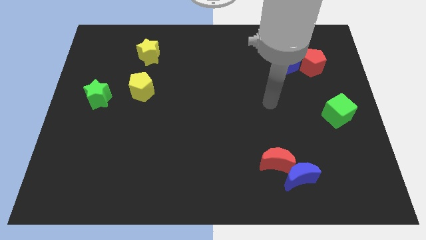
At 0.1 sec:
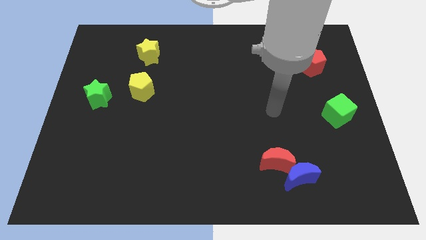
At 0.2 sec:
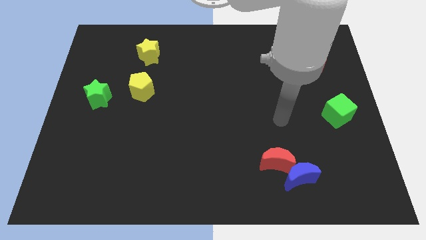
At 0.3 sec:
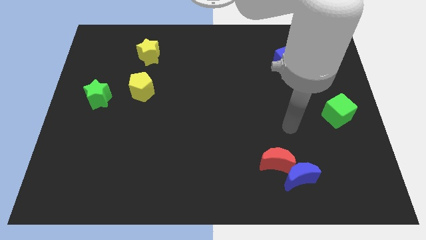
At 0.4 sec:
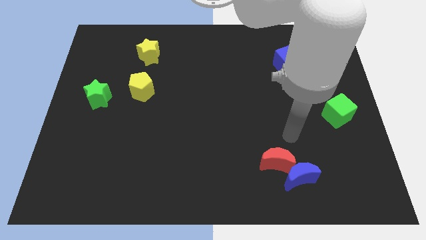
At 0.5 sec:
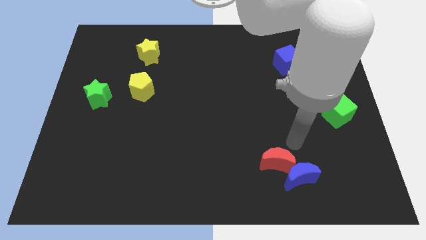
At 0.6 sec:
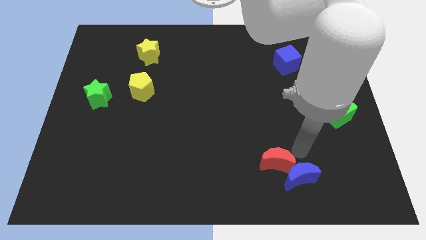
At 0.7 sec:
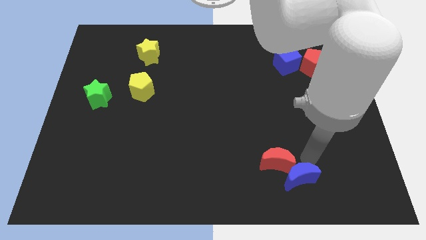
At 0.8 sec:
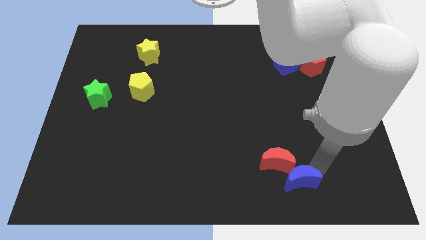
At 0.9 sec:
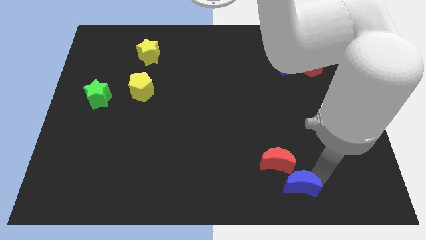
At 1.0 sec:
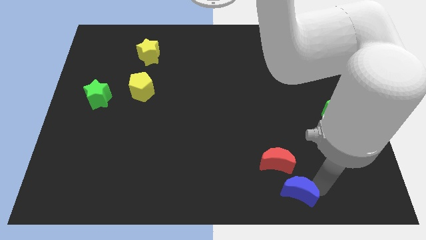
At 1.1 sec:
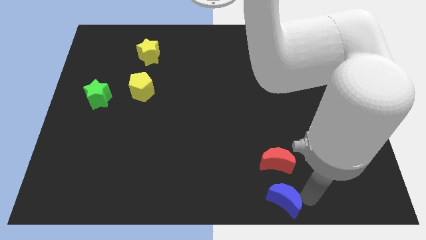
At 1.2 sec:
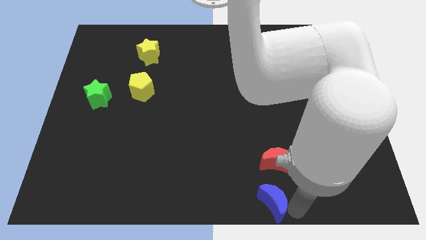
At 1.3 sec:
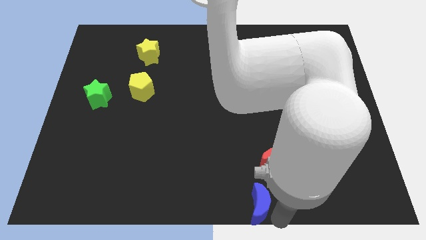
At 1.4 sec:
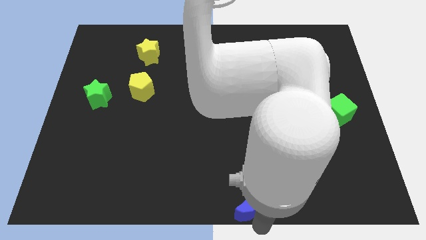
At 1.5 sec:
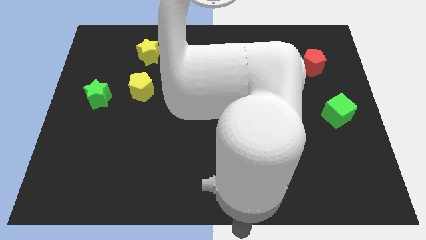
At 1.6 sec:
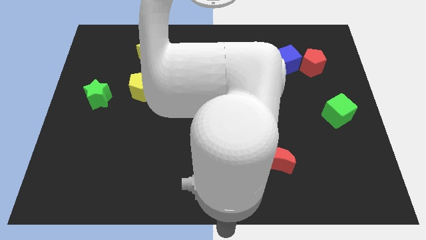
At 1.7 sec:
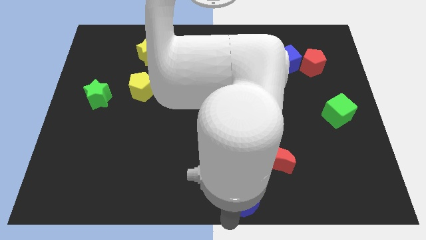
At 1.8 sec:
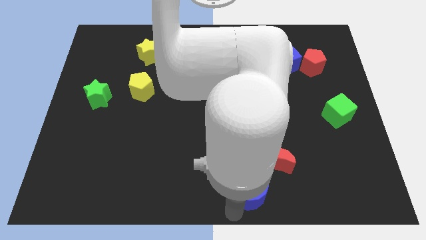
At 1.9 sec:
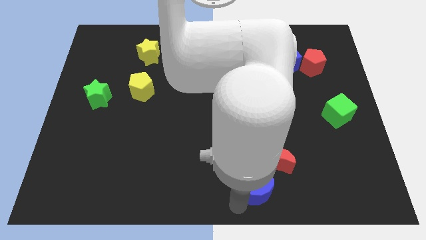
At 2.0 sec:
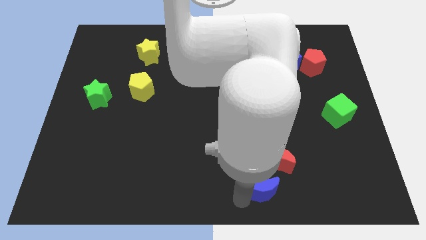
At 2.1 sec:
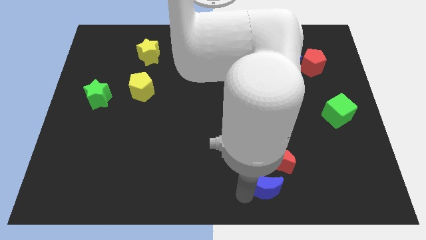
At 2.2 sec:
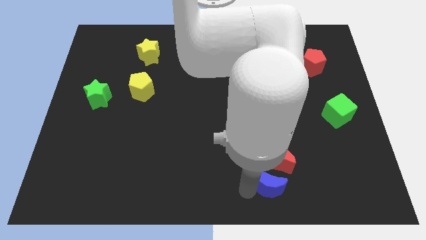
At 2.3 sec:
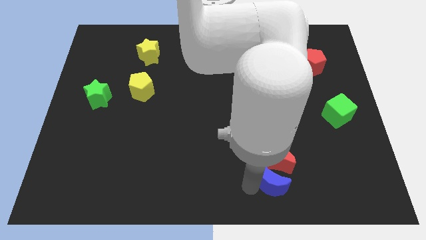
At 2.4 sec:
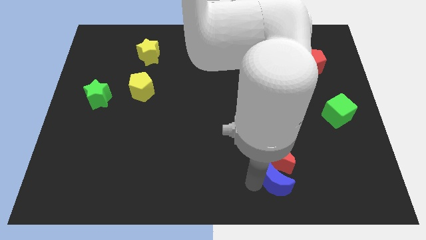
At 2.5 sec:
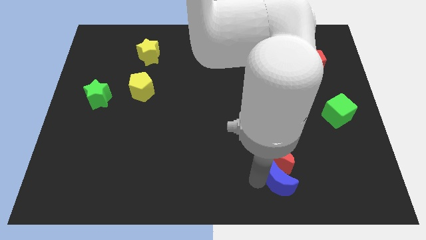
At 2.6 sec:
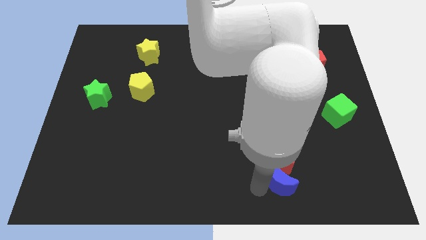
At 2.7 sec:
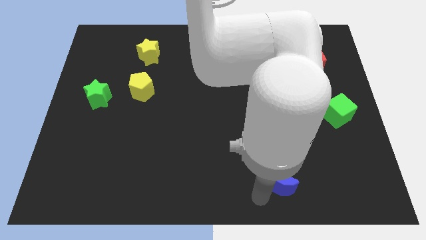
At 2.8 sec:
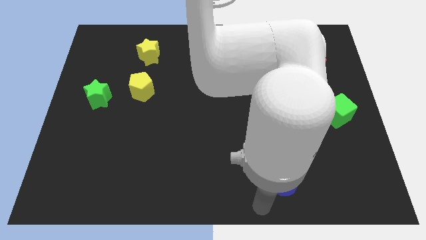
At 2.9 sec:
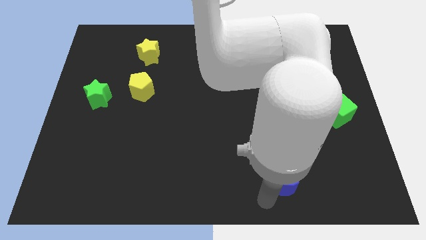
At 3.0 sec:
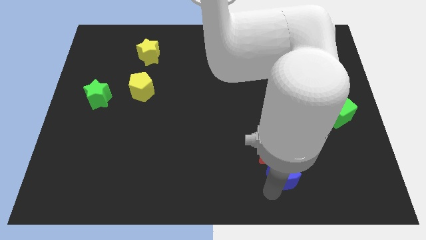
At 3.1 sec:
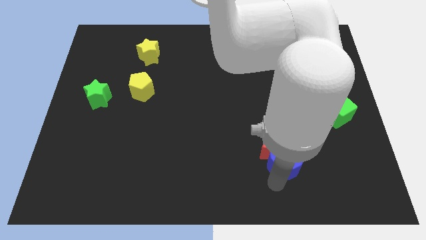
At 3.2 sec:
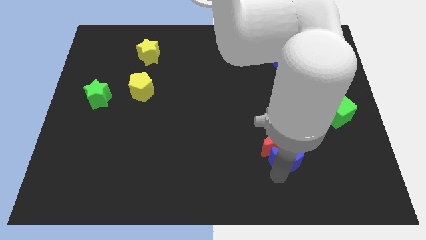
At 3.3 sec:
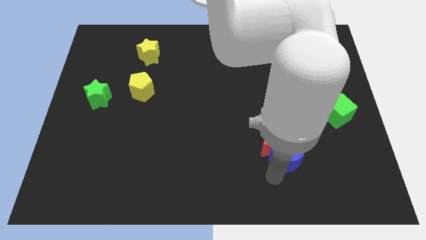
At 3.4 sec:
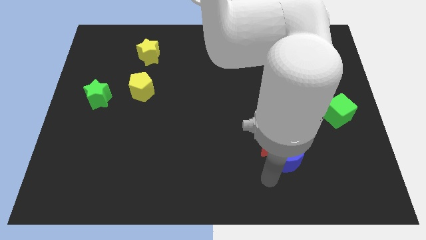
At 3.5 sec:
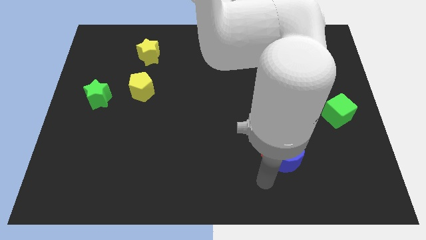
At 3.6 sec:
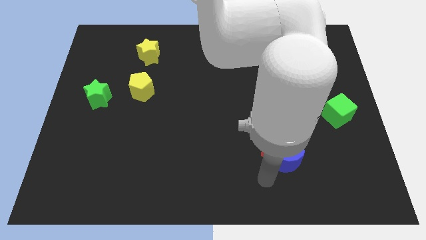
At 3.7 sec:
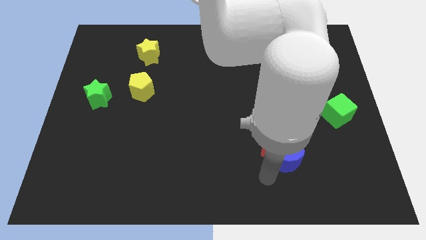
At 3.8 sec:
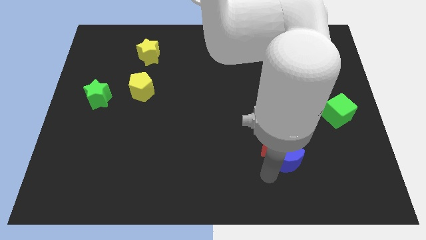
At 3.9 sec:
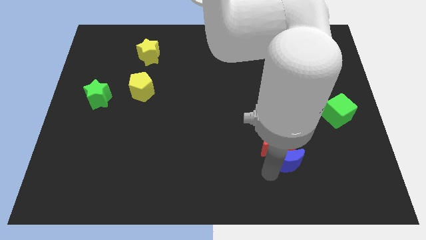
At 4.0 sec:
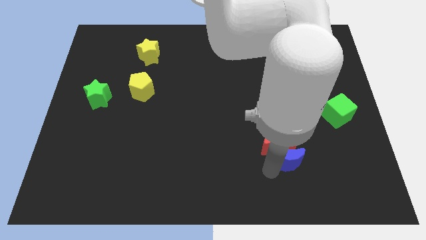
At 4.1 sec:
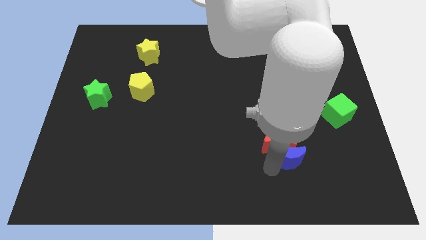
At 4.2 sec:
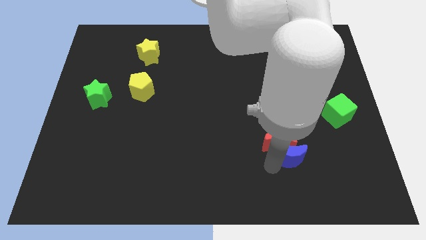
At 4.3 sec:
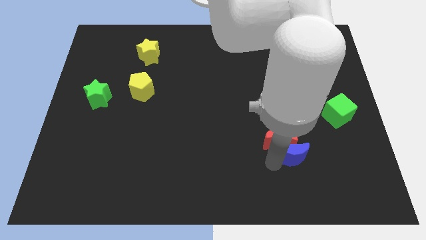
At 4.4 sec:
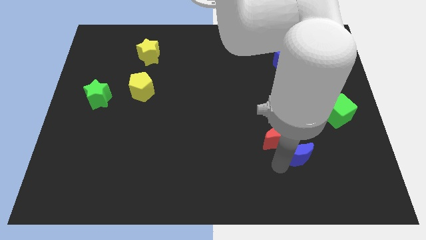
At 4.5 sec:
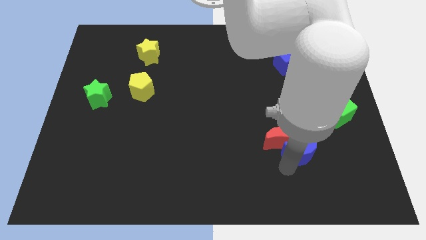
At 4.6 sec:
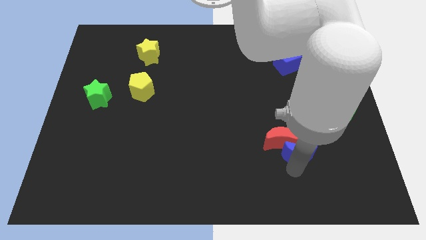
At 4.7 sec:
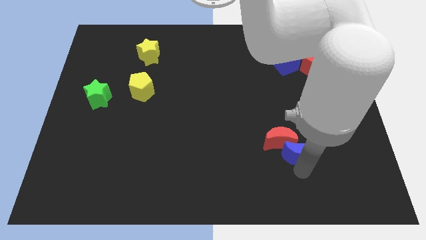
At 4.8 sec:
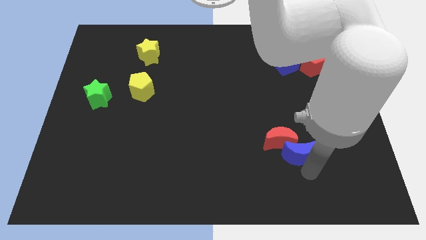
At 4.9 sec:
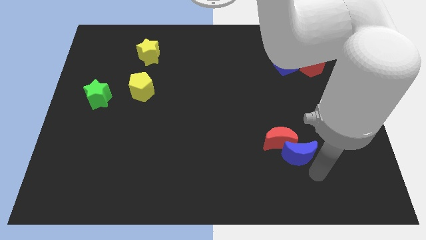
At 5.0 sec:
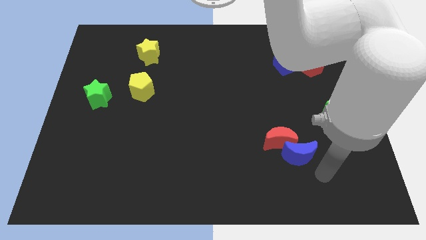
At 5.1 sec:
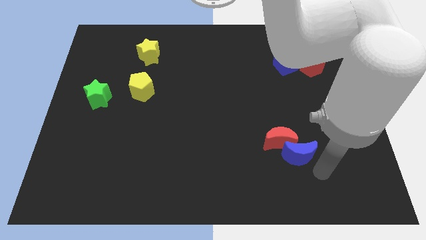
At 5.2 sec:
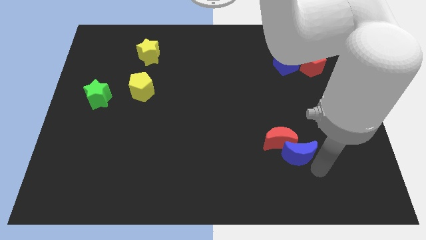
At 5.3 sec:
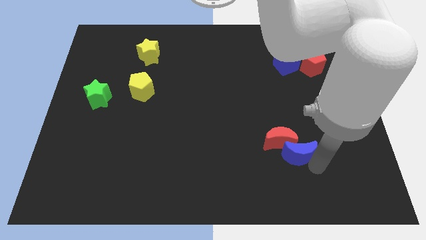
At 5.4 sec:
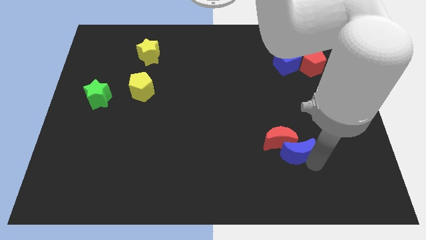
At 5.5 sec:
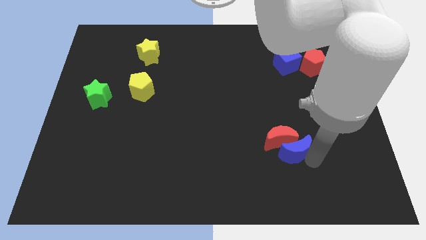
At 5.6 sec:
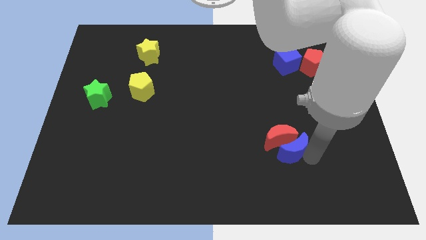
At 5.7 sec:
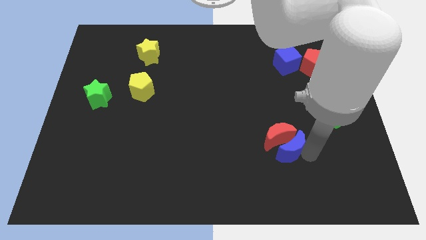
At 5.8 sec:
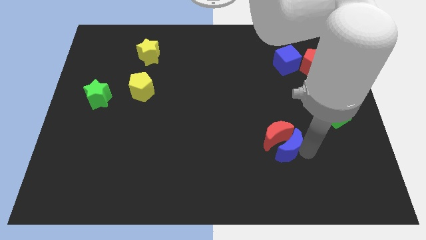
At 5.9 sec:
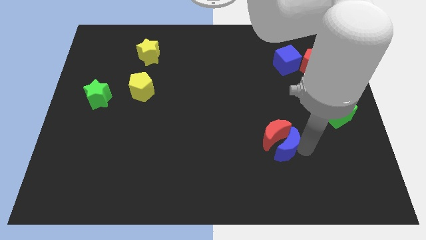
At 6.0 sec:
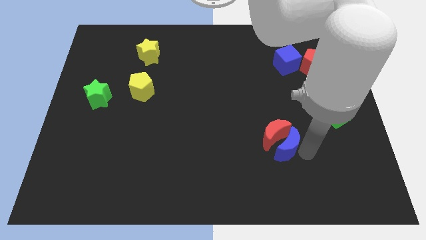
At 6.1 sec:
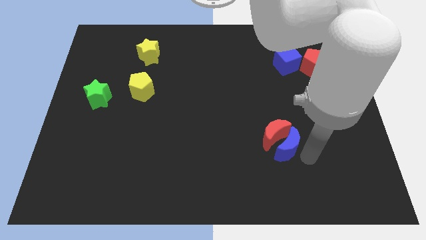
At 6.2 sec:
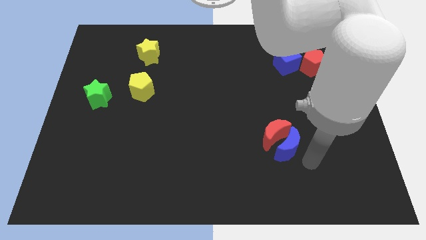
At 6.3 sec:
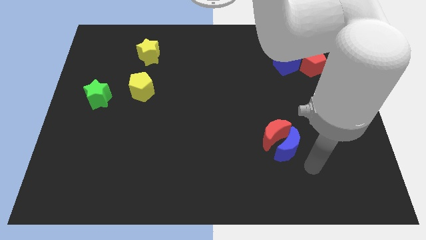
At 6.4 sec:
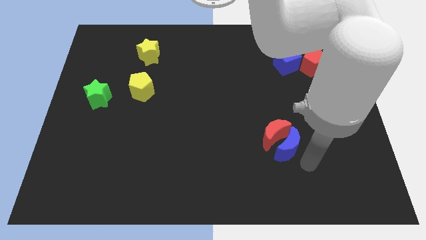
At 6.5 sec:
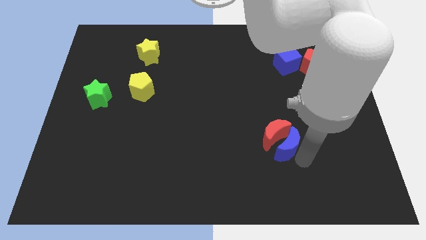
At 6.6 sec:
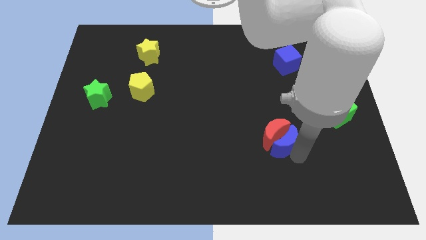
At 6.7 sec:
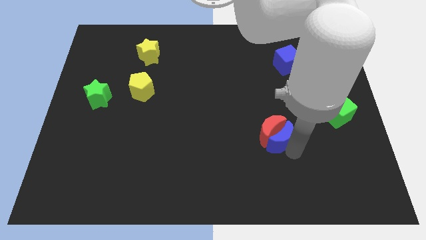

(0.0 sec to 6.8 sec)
slightly push the blue moon upwards and to the left

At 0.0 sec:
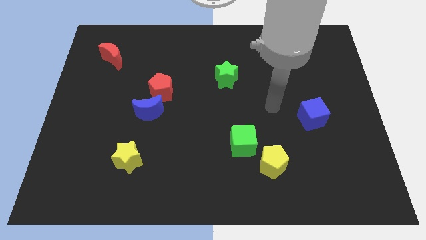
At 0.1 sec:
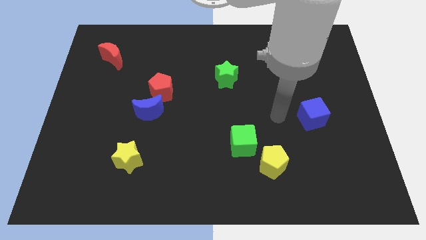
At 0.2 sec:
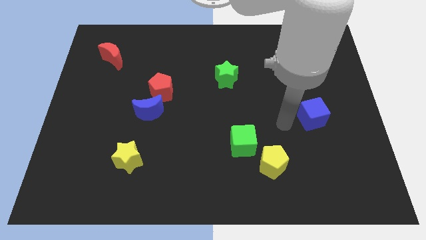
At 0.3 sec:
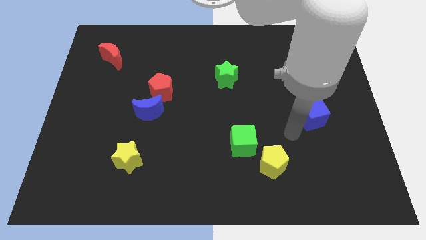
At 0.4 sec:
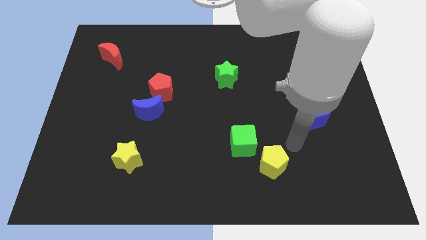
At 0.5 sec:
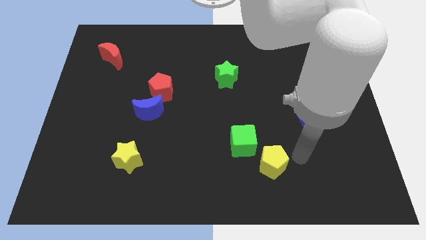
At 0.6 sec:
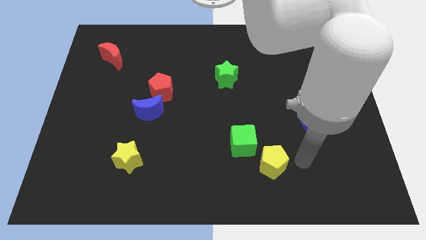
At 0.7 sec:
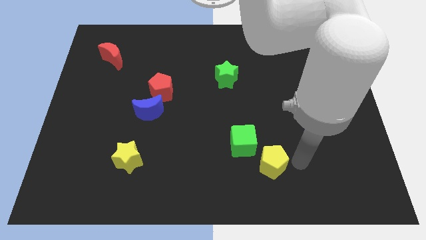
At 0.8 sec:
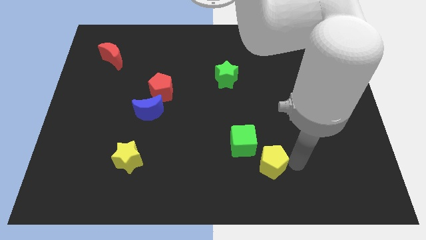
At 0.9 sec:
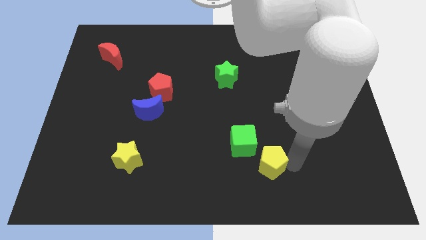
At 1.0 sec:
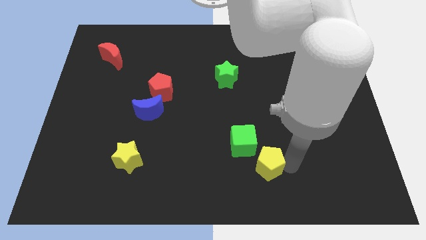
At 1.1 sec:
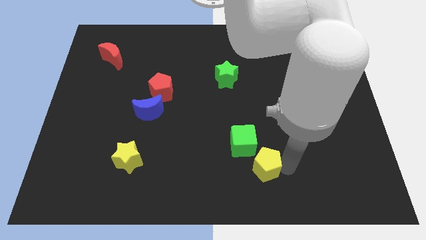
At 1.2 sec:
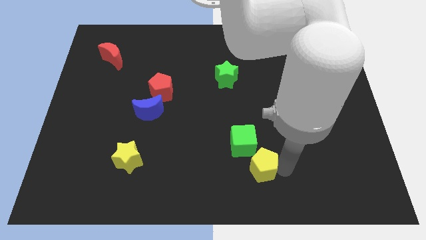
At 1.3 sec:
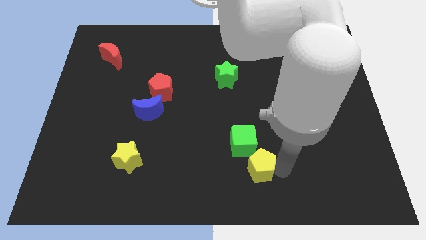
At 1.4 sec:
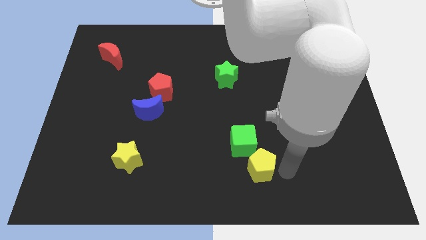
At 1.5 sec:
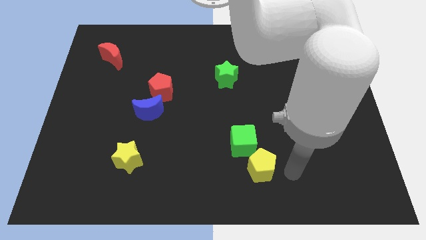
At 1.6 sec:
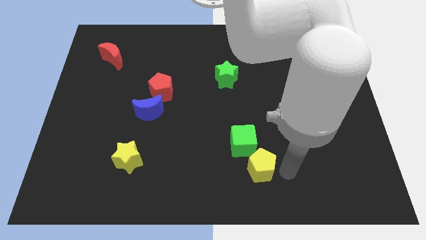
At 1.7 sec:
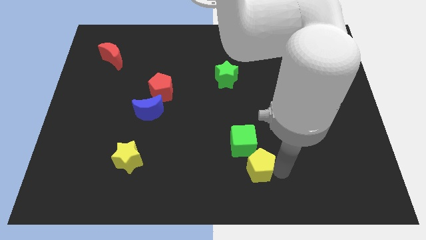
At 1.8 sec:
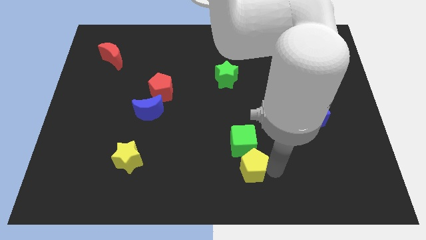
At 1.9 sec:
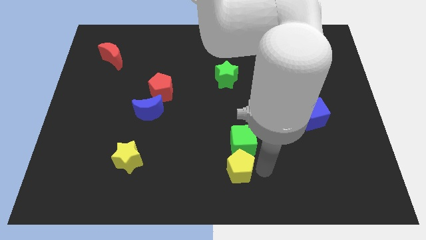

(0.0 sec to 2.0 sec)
slide the yellow pentagon somewhat left
